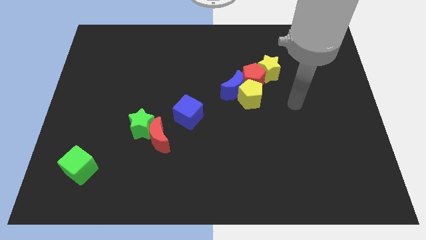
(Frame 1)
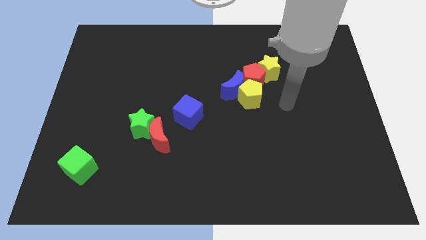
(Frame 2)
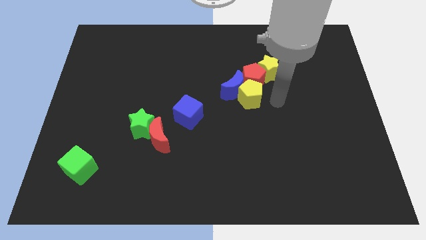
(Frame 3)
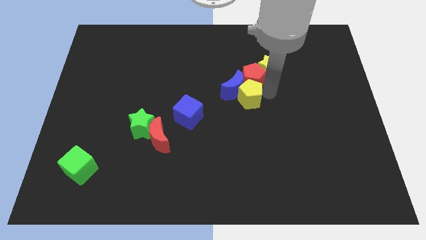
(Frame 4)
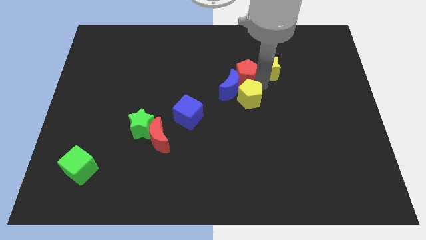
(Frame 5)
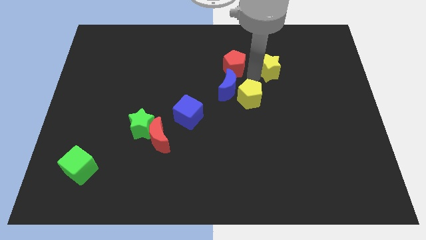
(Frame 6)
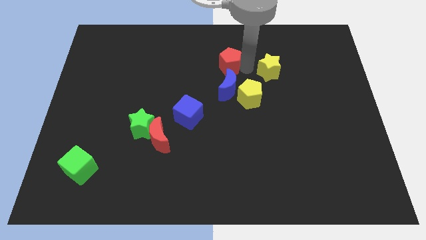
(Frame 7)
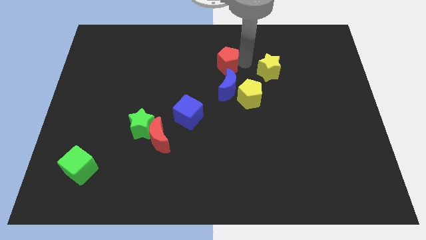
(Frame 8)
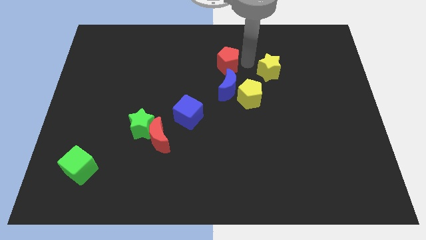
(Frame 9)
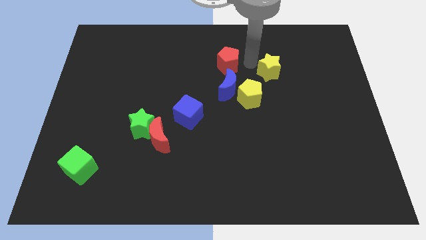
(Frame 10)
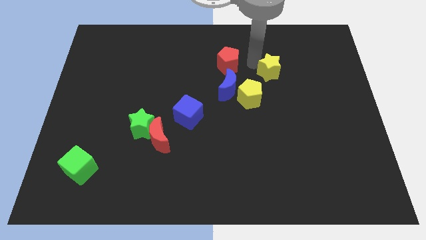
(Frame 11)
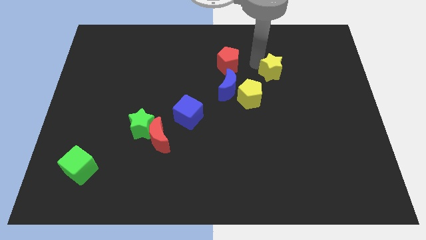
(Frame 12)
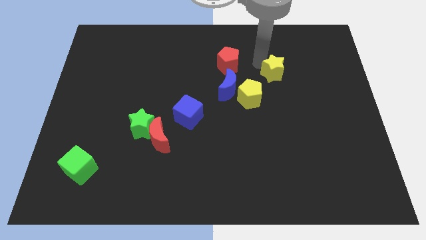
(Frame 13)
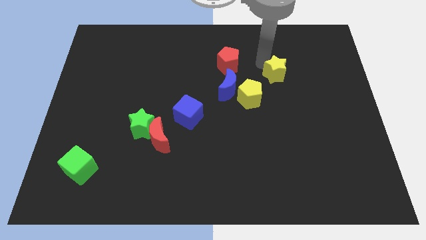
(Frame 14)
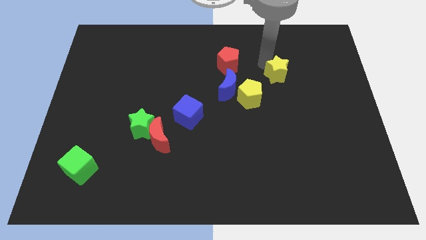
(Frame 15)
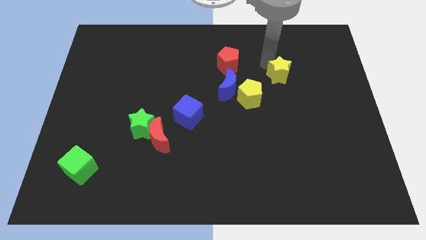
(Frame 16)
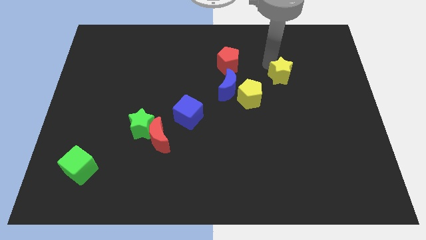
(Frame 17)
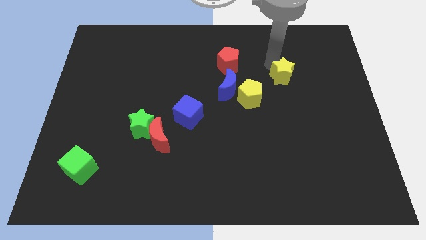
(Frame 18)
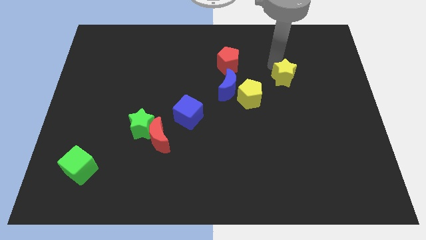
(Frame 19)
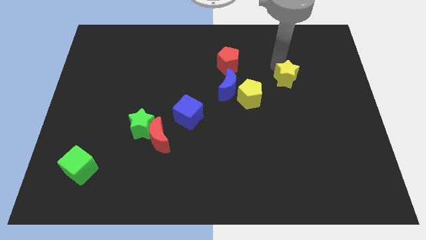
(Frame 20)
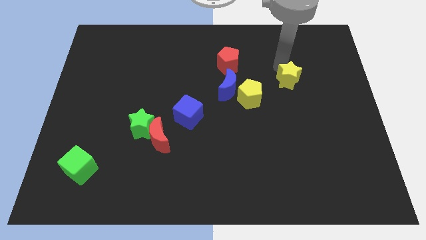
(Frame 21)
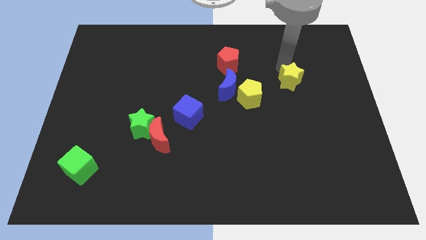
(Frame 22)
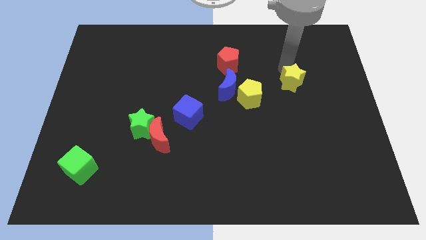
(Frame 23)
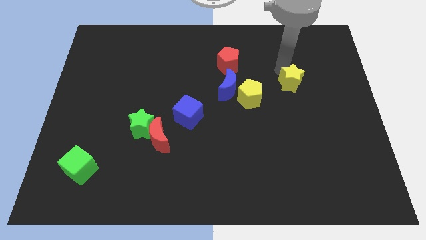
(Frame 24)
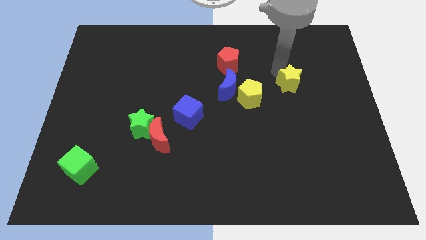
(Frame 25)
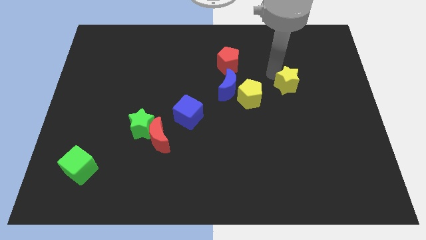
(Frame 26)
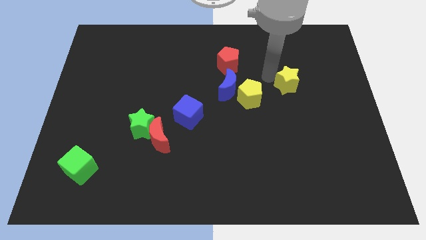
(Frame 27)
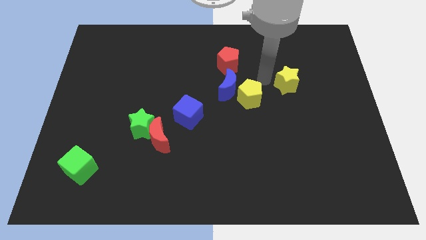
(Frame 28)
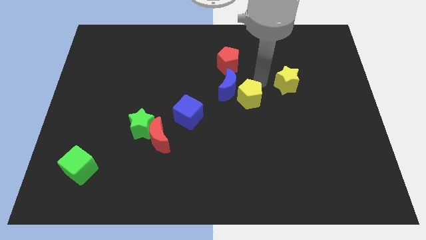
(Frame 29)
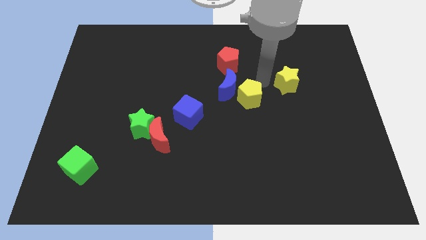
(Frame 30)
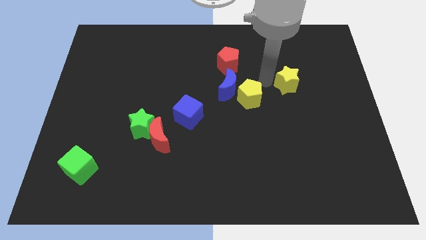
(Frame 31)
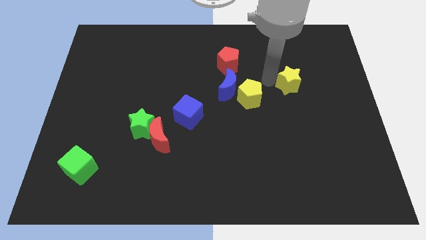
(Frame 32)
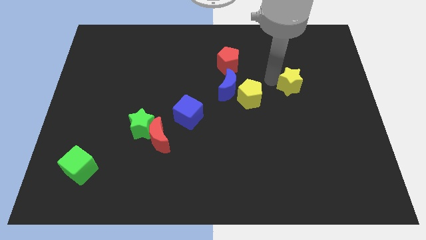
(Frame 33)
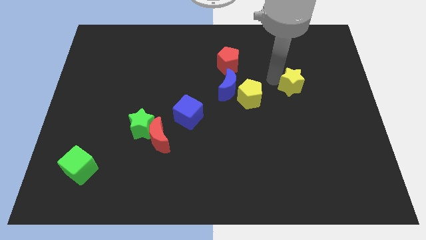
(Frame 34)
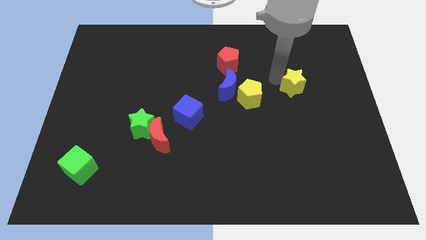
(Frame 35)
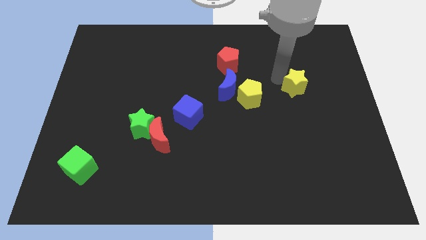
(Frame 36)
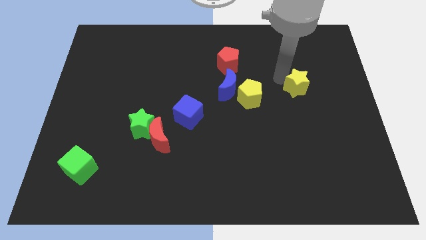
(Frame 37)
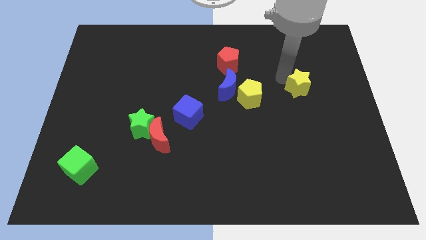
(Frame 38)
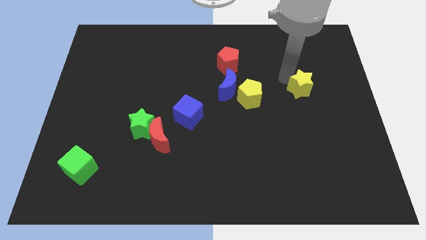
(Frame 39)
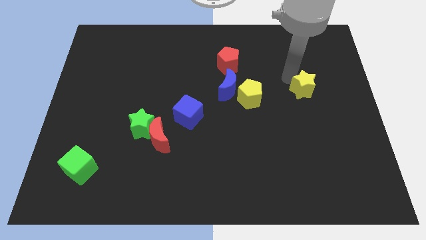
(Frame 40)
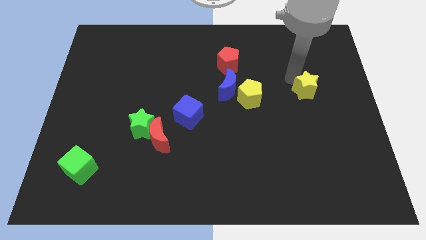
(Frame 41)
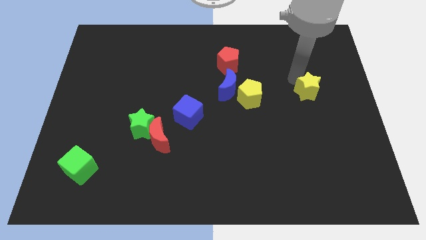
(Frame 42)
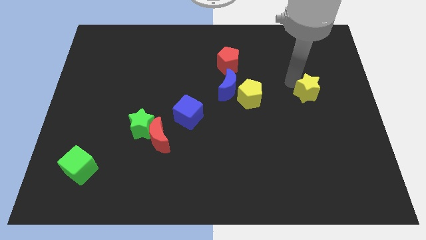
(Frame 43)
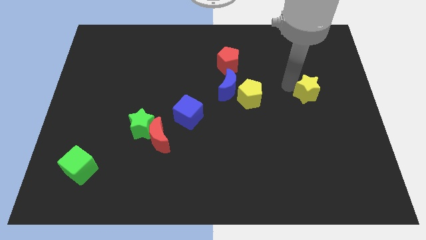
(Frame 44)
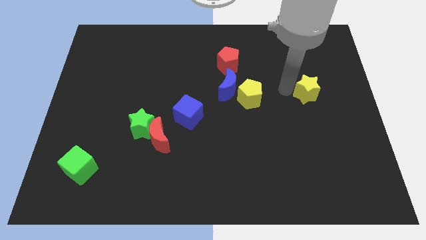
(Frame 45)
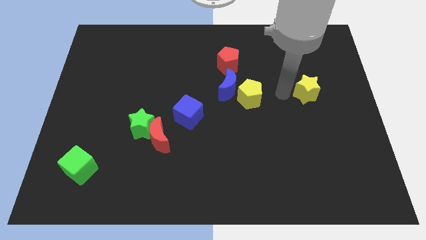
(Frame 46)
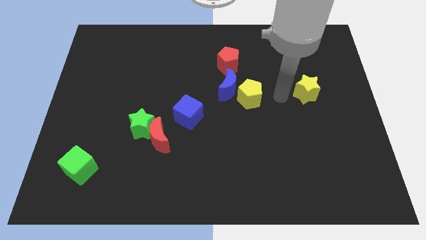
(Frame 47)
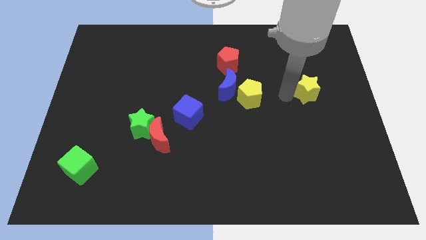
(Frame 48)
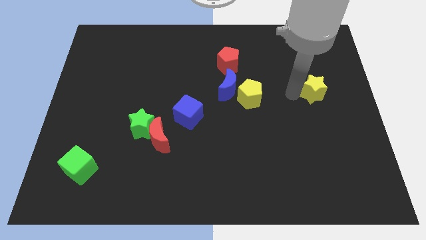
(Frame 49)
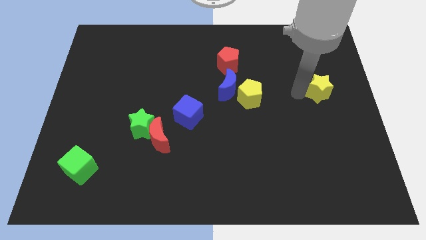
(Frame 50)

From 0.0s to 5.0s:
push the yellow star to the right side of the board

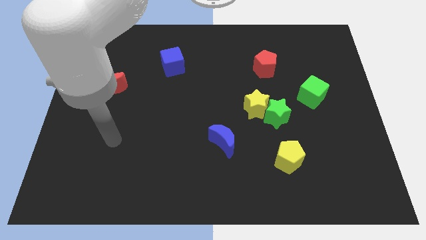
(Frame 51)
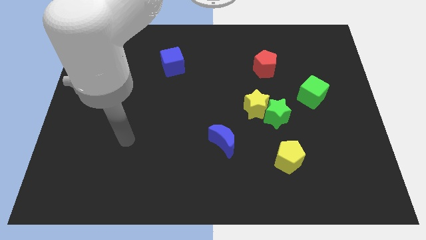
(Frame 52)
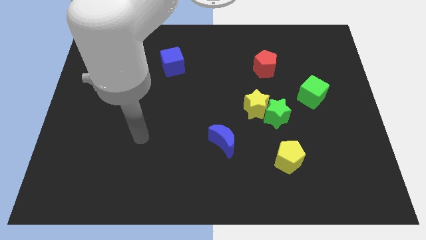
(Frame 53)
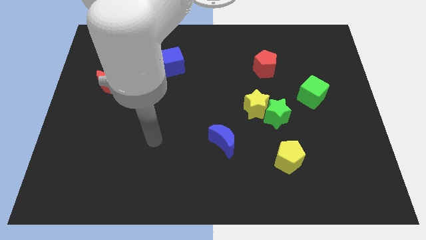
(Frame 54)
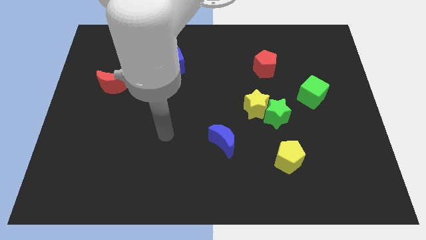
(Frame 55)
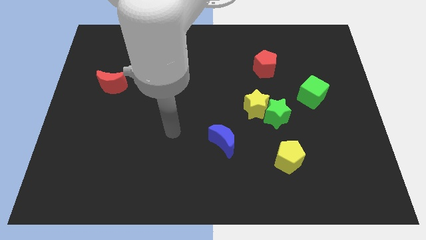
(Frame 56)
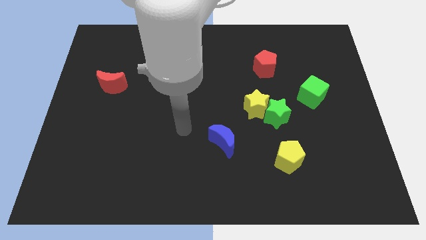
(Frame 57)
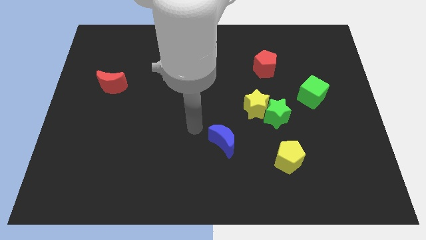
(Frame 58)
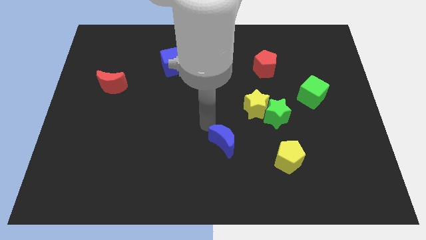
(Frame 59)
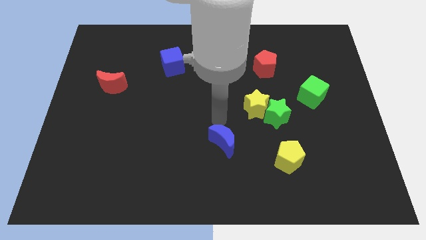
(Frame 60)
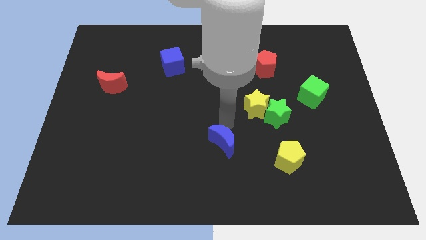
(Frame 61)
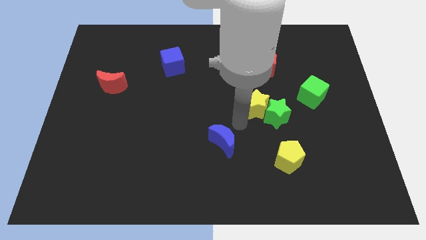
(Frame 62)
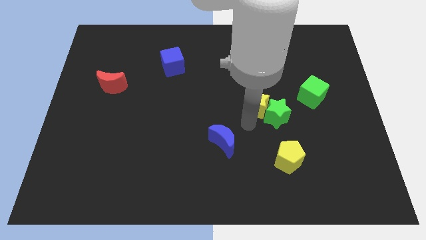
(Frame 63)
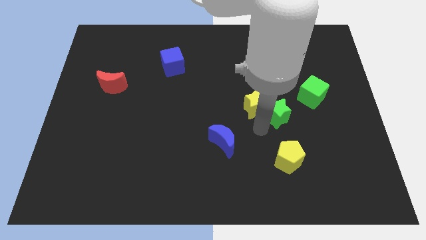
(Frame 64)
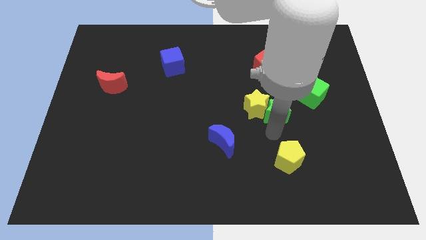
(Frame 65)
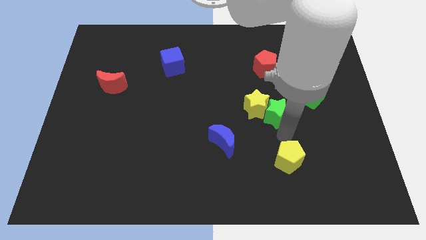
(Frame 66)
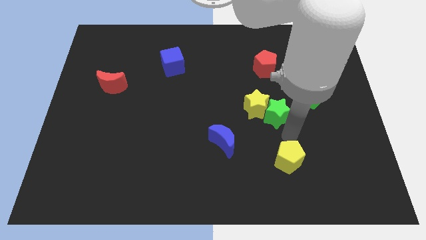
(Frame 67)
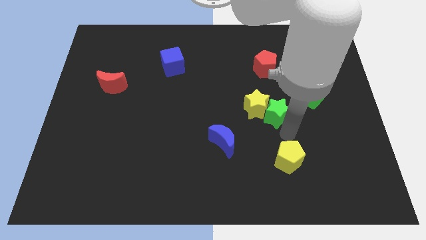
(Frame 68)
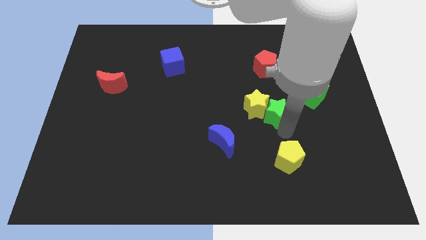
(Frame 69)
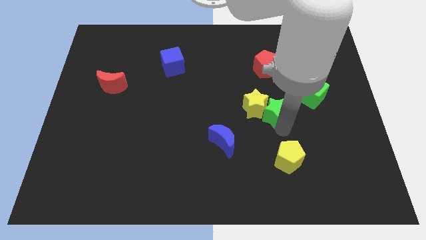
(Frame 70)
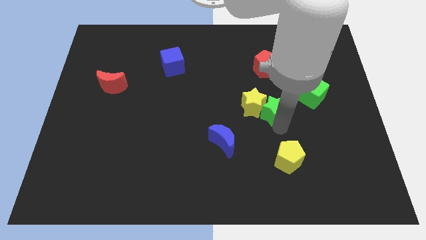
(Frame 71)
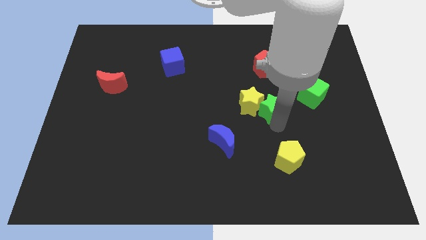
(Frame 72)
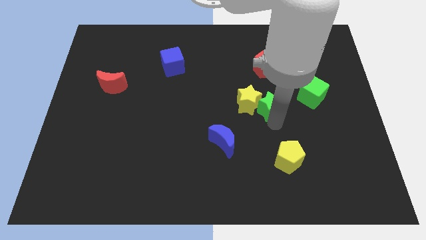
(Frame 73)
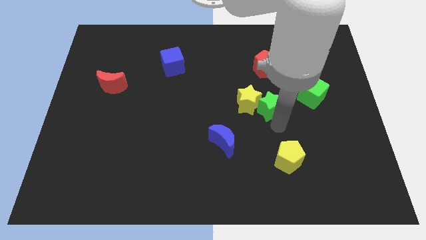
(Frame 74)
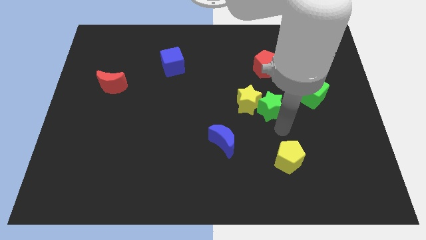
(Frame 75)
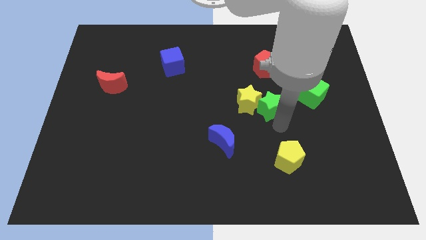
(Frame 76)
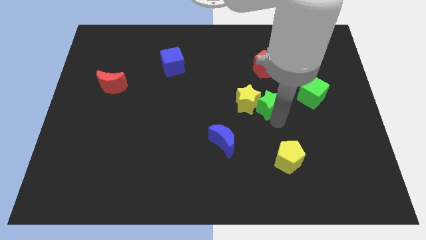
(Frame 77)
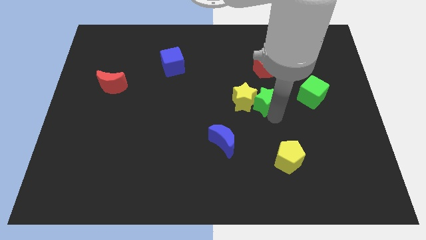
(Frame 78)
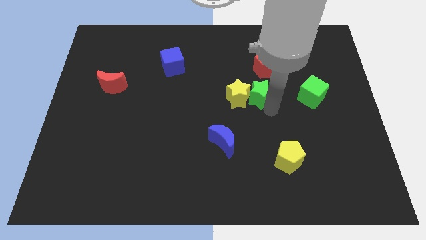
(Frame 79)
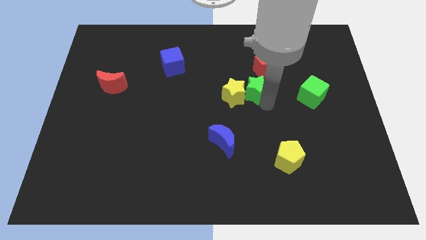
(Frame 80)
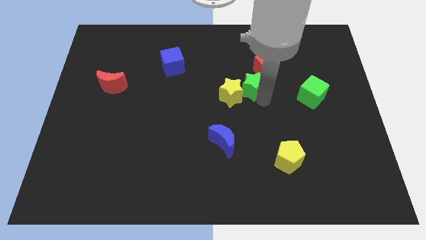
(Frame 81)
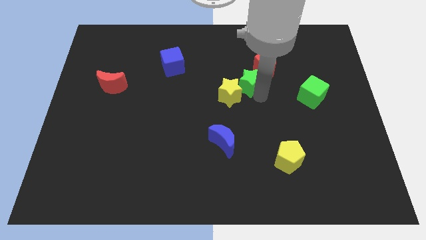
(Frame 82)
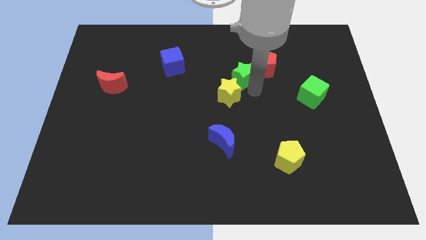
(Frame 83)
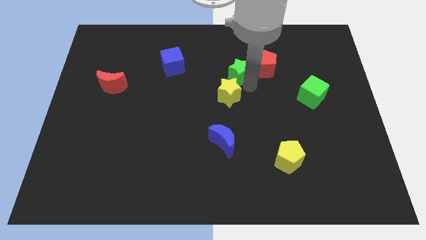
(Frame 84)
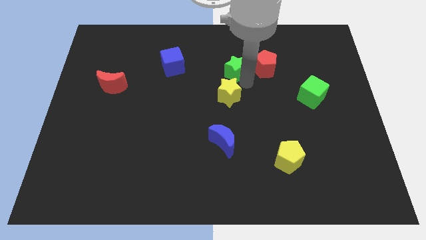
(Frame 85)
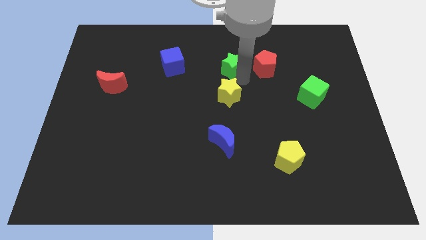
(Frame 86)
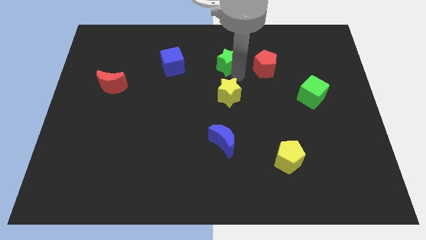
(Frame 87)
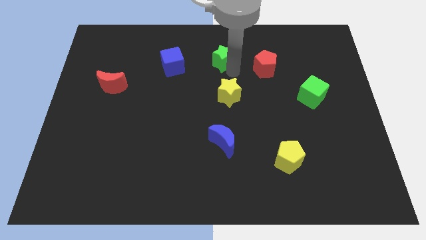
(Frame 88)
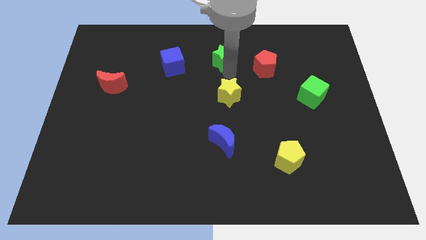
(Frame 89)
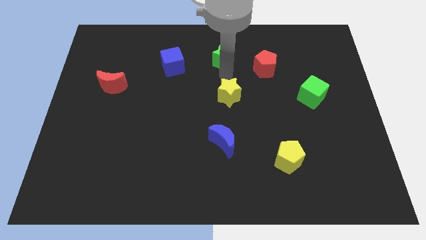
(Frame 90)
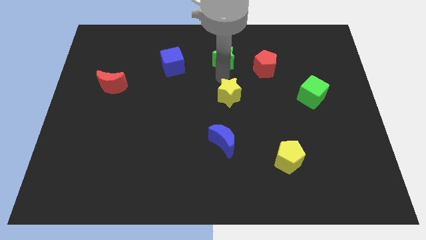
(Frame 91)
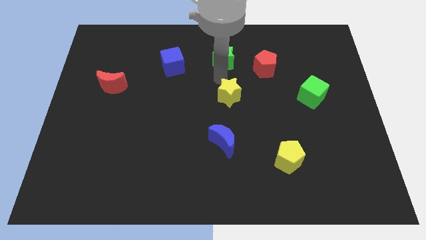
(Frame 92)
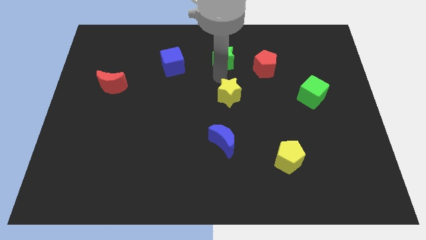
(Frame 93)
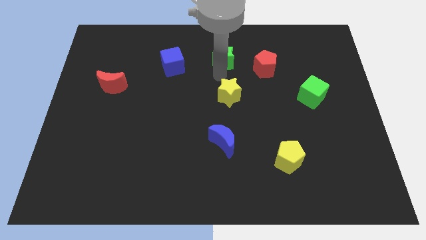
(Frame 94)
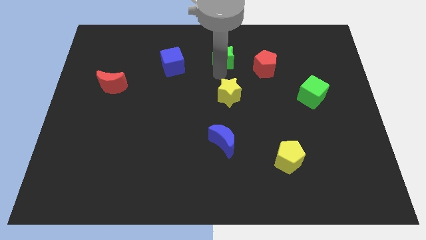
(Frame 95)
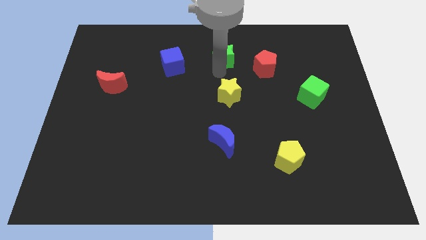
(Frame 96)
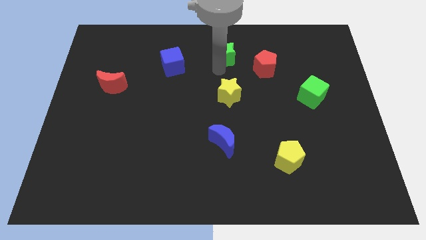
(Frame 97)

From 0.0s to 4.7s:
put the green star to the towards your base
